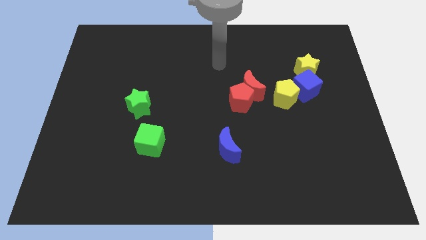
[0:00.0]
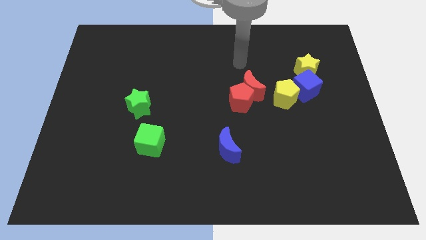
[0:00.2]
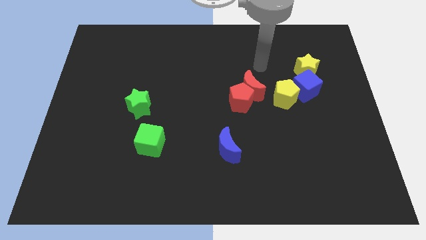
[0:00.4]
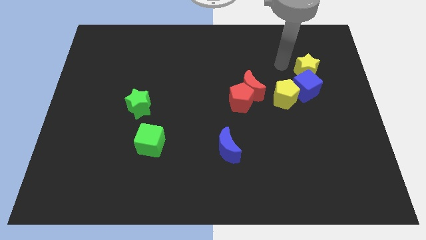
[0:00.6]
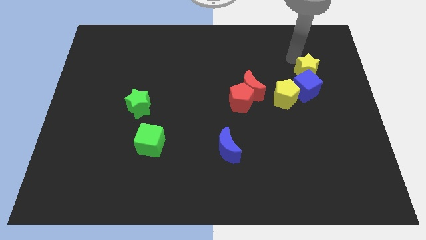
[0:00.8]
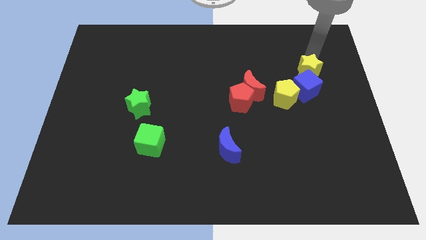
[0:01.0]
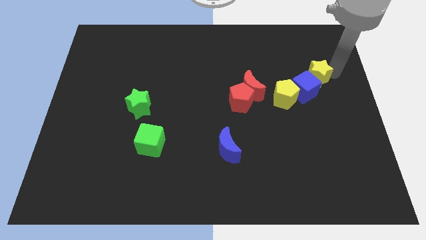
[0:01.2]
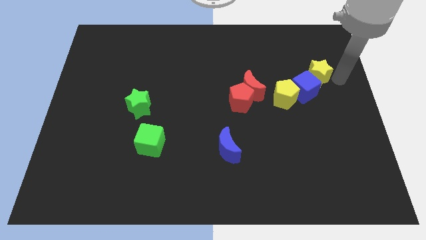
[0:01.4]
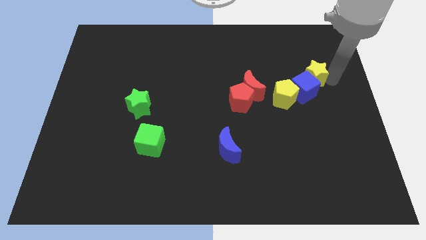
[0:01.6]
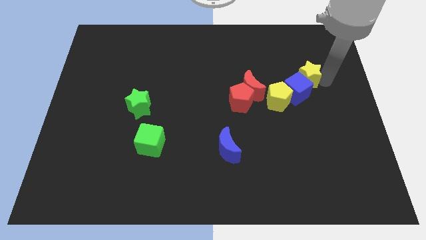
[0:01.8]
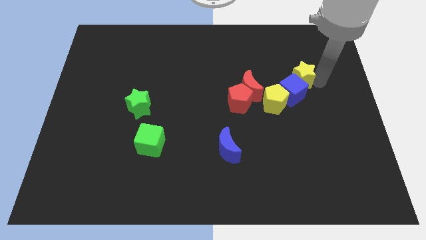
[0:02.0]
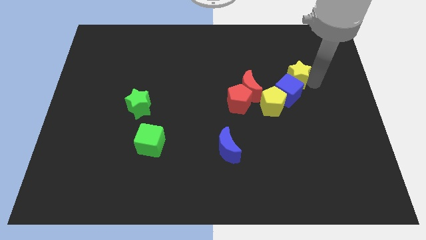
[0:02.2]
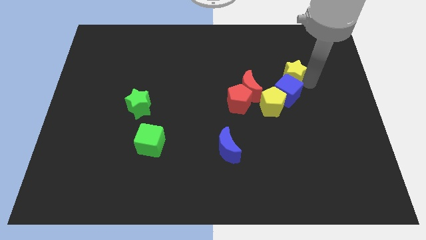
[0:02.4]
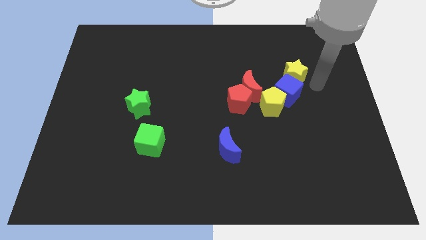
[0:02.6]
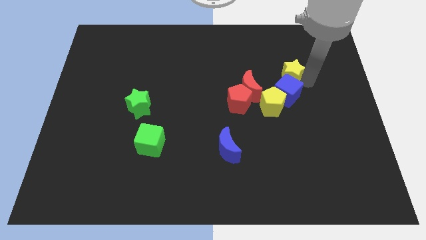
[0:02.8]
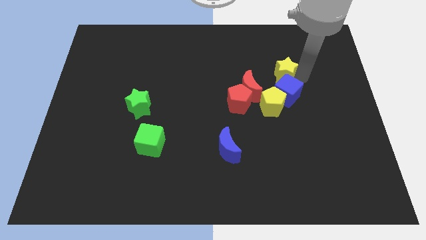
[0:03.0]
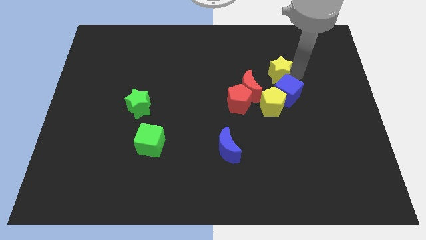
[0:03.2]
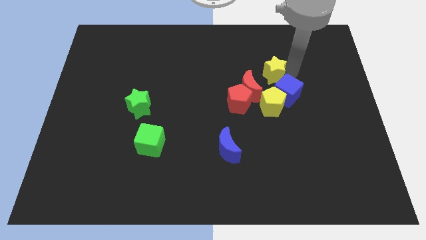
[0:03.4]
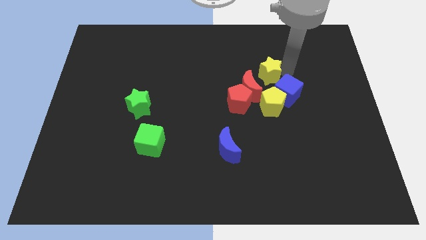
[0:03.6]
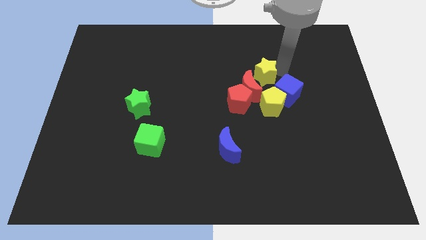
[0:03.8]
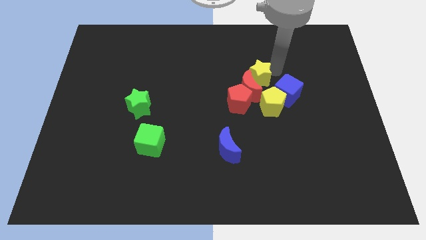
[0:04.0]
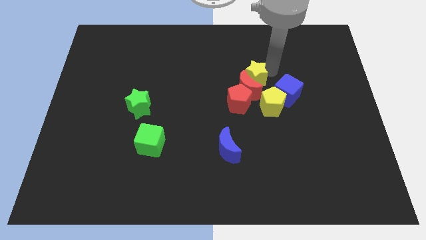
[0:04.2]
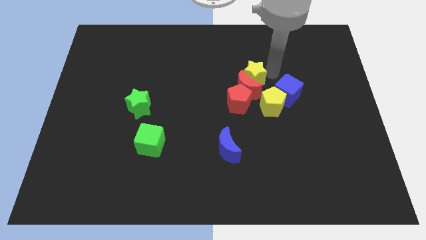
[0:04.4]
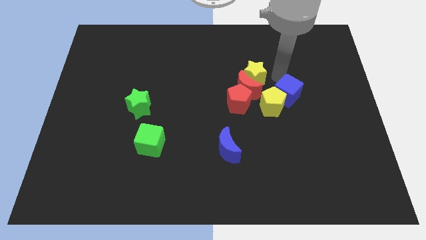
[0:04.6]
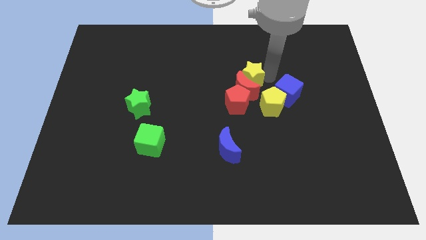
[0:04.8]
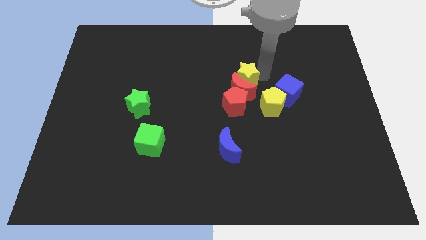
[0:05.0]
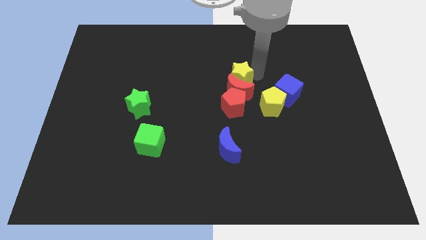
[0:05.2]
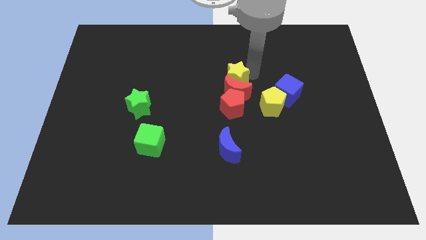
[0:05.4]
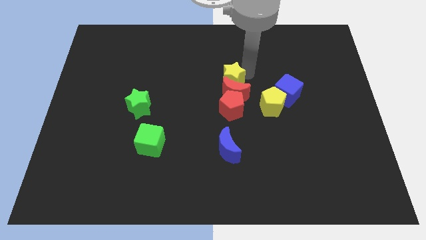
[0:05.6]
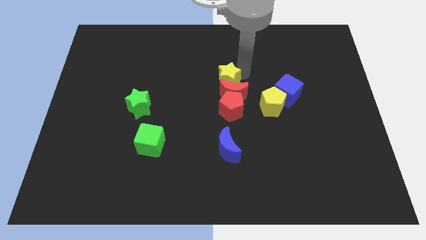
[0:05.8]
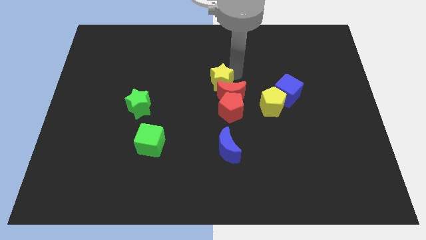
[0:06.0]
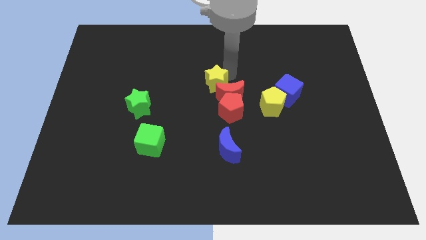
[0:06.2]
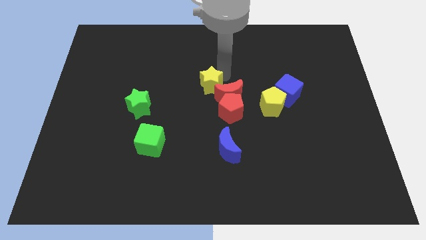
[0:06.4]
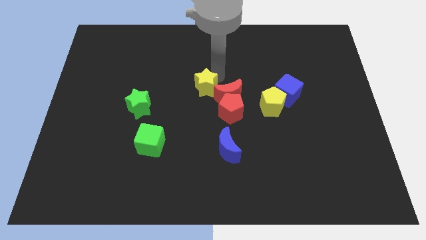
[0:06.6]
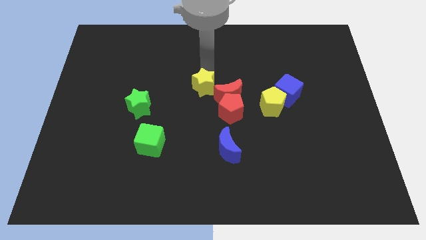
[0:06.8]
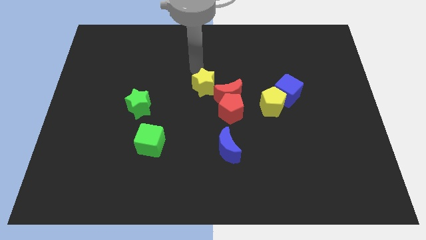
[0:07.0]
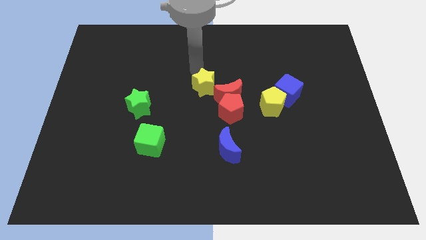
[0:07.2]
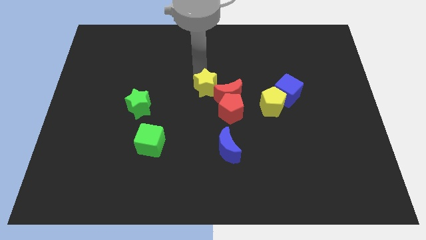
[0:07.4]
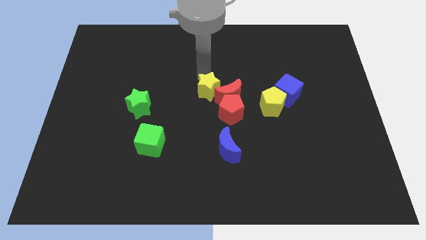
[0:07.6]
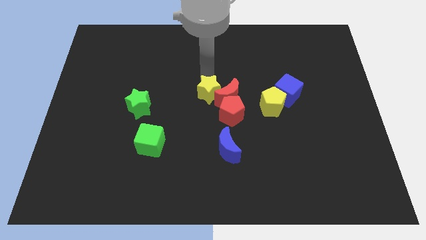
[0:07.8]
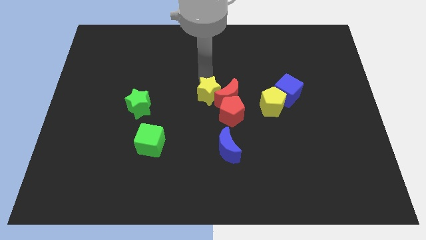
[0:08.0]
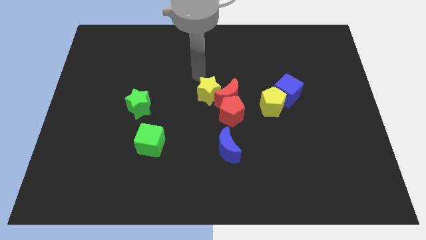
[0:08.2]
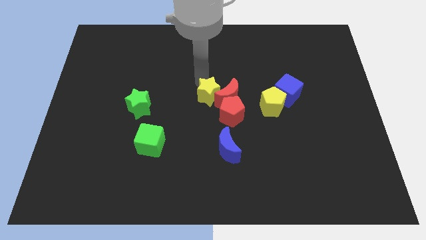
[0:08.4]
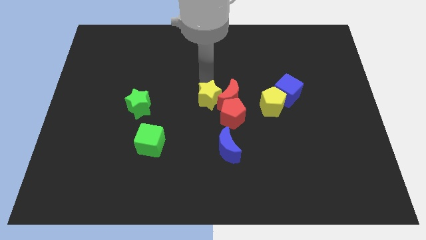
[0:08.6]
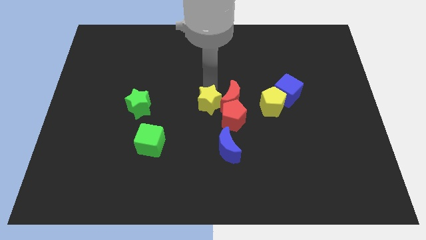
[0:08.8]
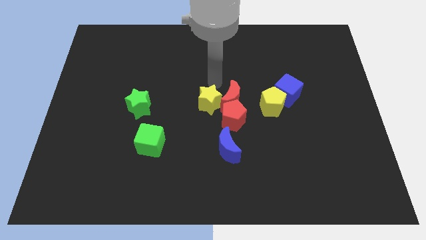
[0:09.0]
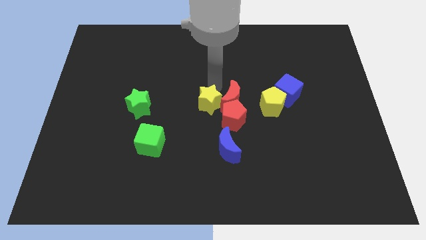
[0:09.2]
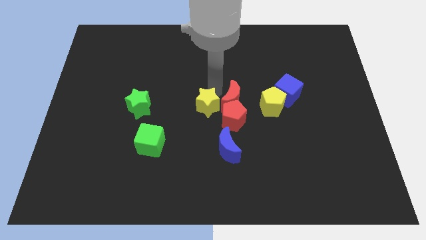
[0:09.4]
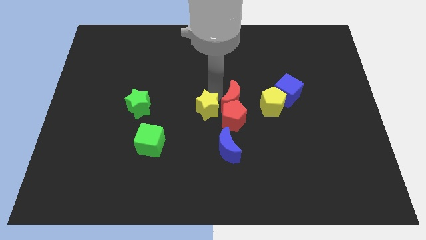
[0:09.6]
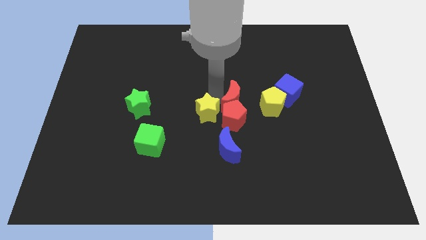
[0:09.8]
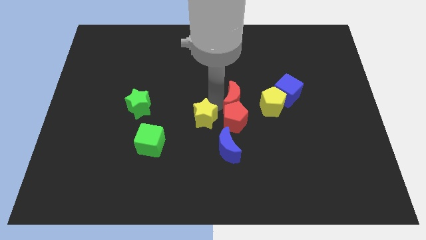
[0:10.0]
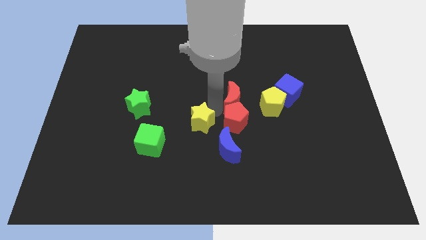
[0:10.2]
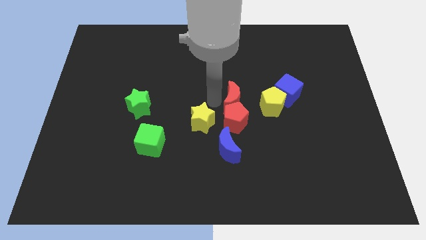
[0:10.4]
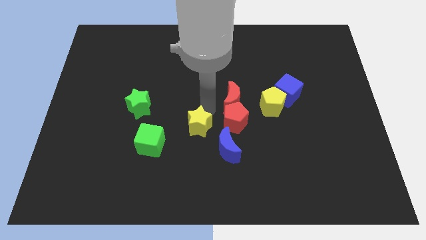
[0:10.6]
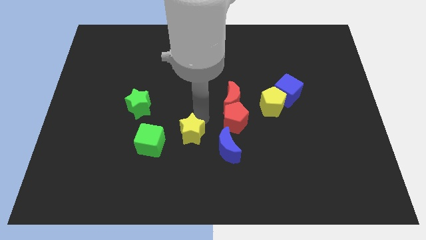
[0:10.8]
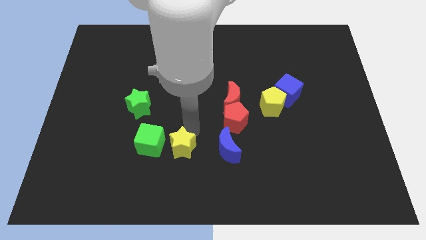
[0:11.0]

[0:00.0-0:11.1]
slide the yellow star diagonally down and to the right of the green cube

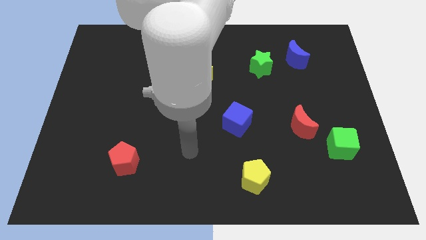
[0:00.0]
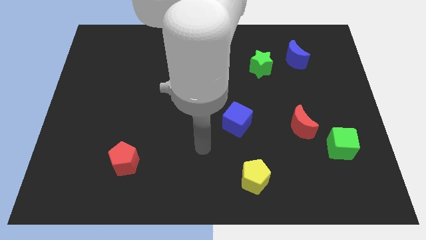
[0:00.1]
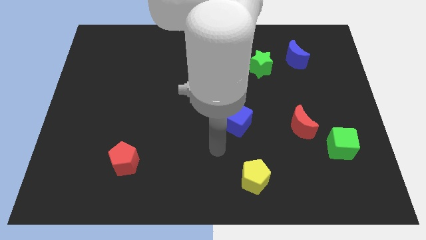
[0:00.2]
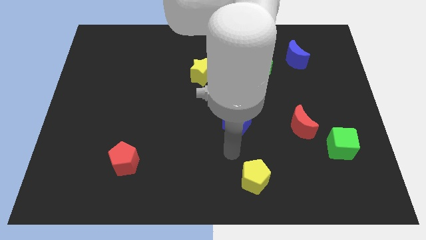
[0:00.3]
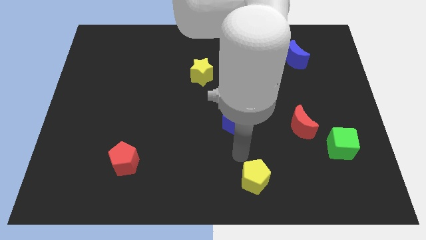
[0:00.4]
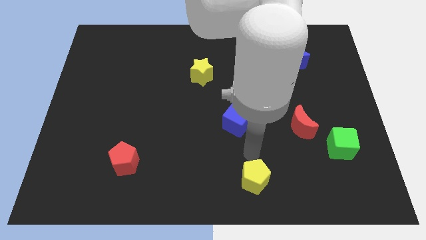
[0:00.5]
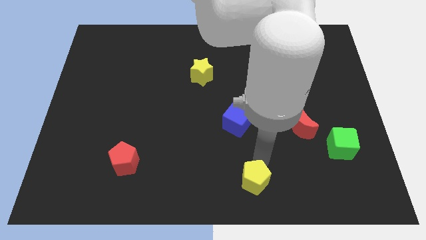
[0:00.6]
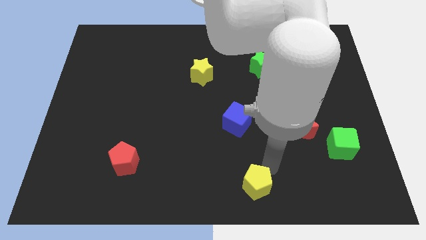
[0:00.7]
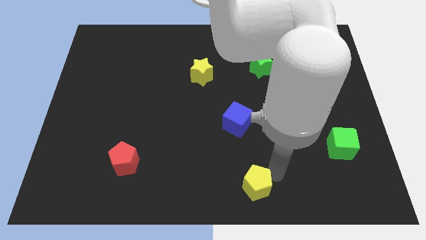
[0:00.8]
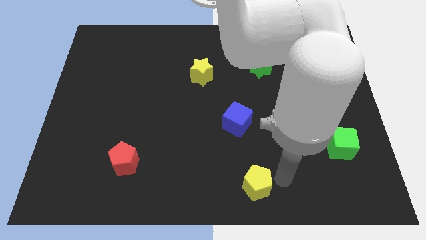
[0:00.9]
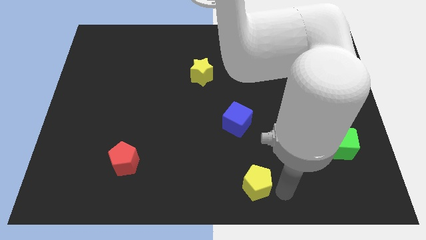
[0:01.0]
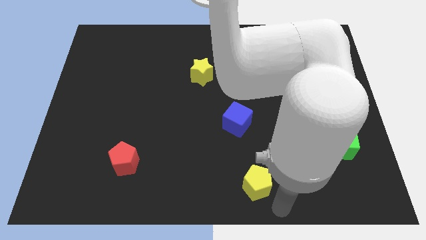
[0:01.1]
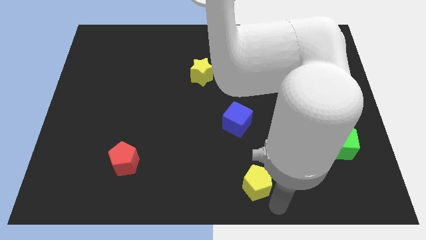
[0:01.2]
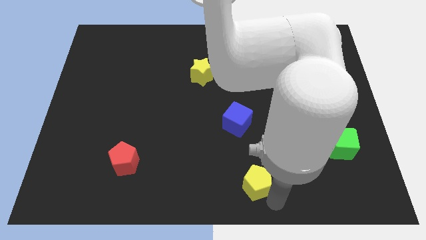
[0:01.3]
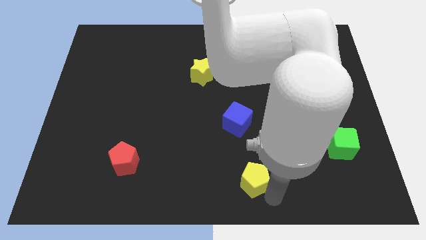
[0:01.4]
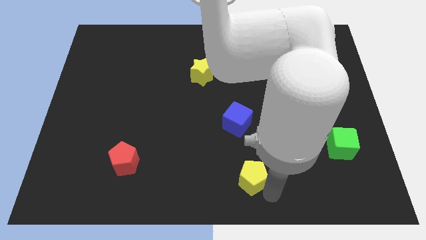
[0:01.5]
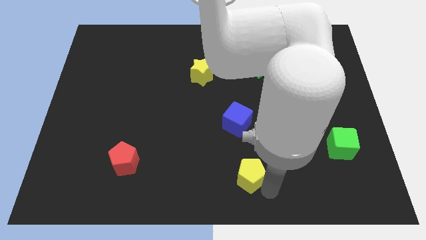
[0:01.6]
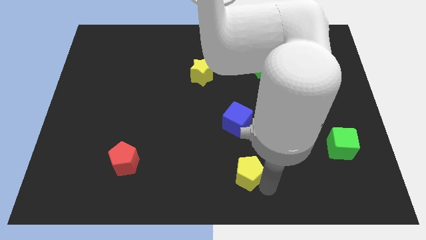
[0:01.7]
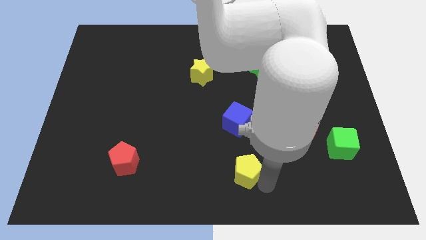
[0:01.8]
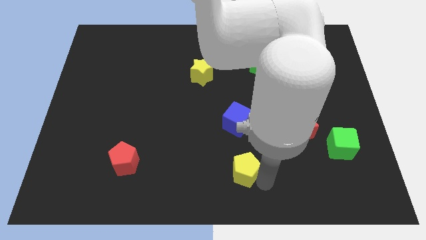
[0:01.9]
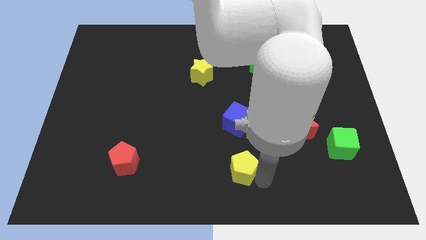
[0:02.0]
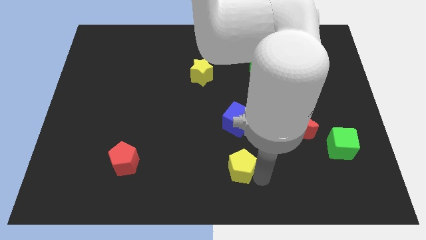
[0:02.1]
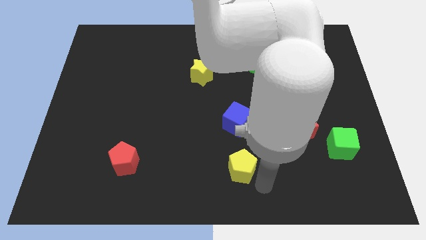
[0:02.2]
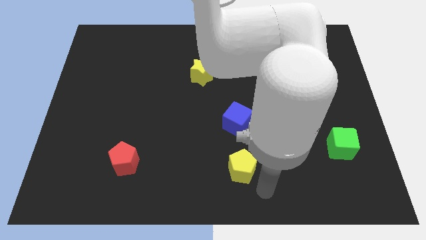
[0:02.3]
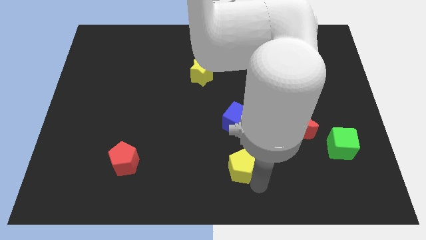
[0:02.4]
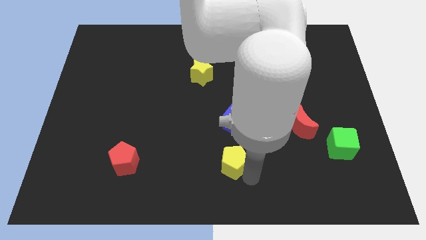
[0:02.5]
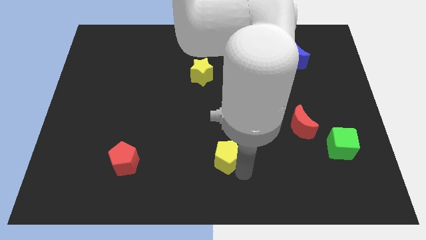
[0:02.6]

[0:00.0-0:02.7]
slide the yellow pentagon to the bottom left side of the blue cube
